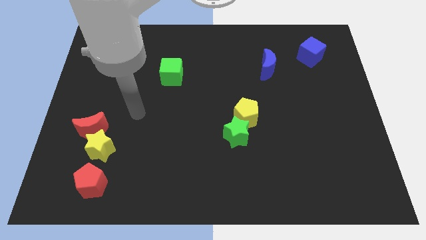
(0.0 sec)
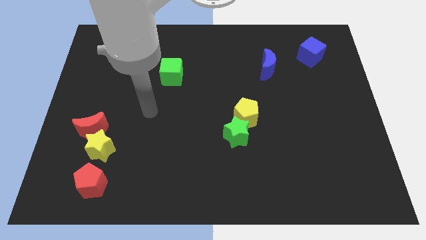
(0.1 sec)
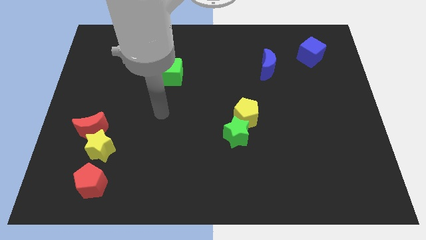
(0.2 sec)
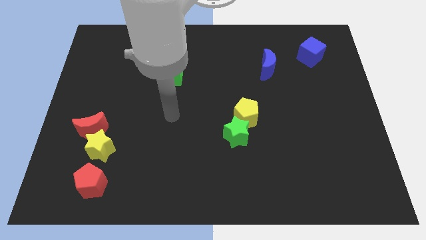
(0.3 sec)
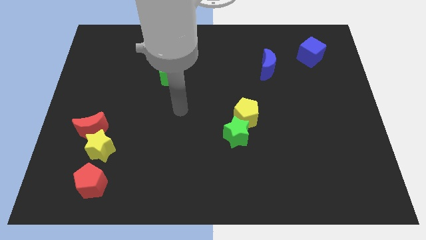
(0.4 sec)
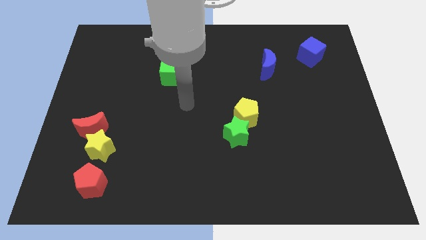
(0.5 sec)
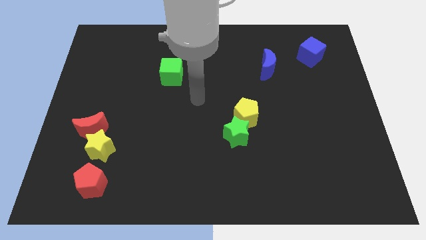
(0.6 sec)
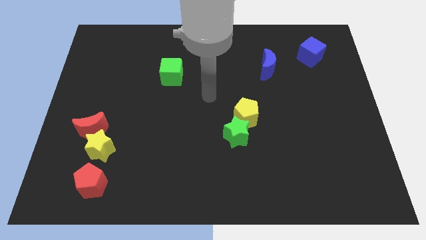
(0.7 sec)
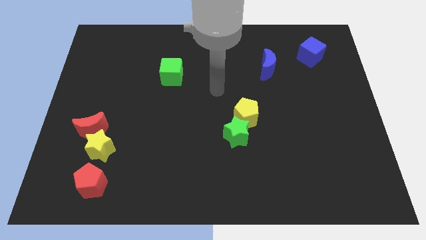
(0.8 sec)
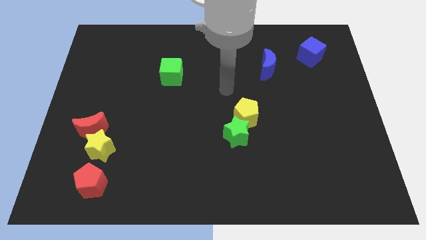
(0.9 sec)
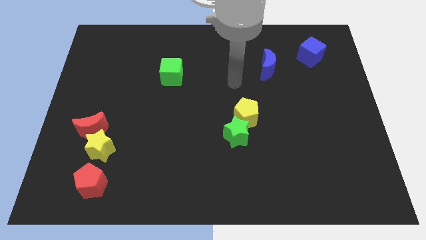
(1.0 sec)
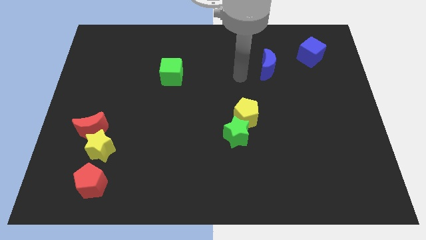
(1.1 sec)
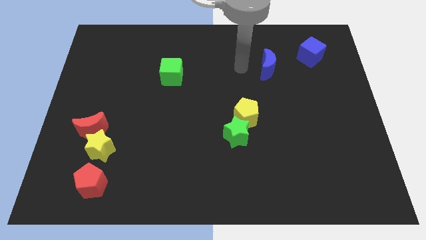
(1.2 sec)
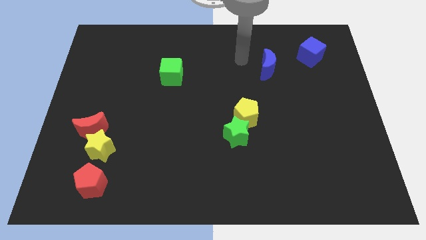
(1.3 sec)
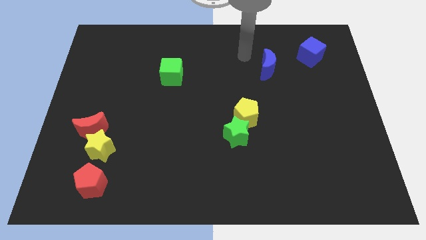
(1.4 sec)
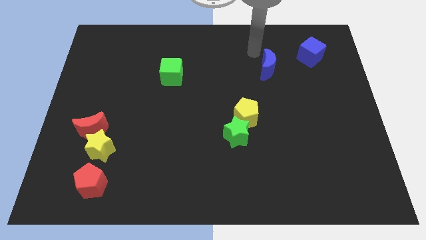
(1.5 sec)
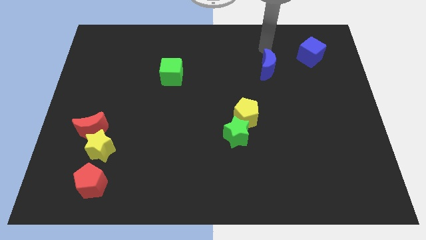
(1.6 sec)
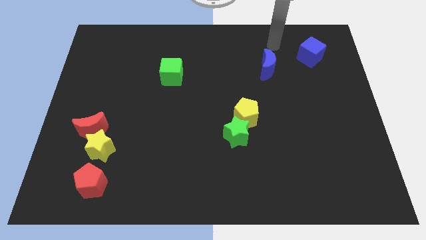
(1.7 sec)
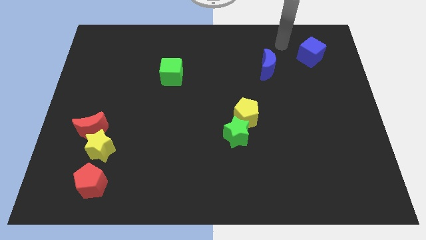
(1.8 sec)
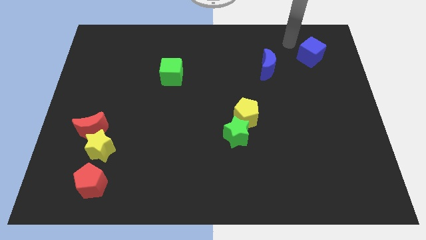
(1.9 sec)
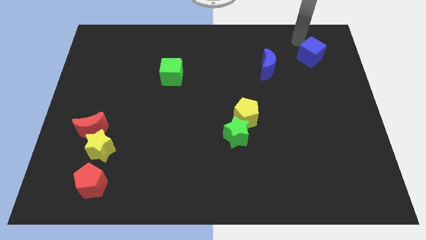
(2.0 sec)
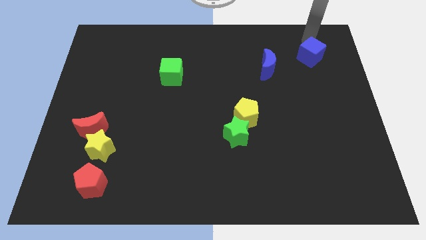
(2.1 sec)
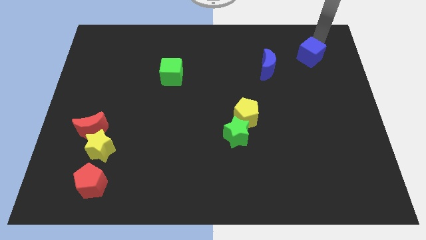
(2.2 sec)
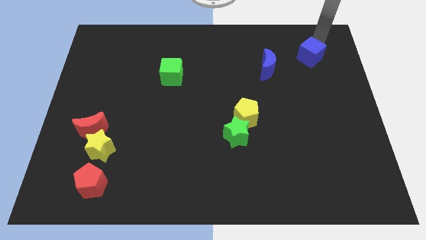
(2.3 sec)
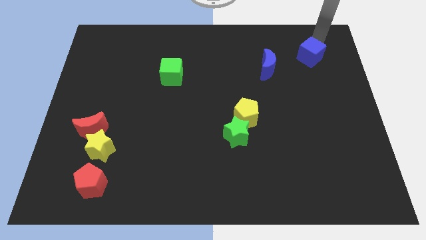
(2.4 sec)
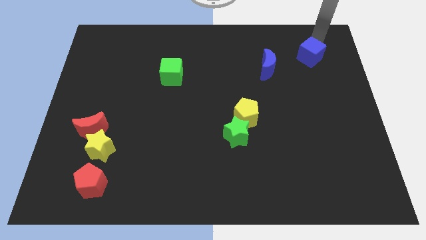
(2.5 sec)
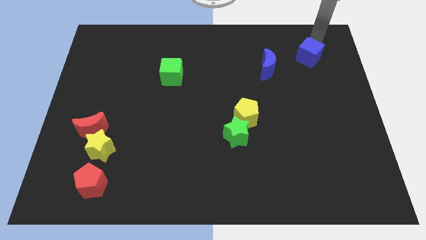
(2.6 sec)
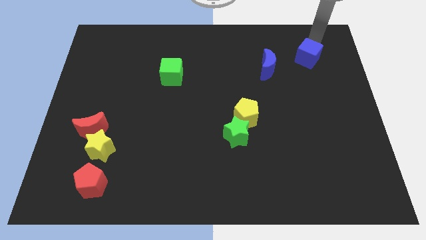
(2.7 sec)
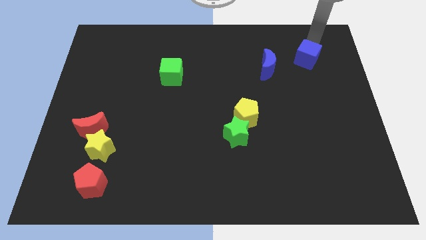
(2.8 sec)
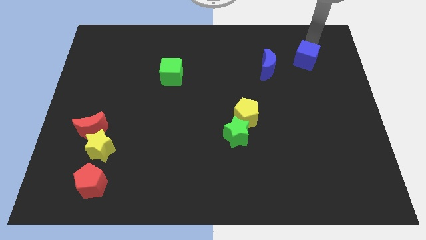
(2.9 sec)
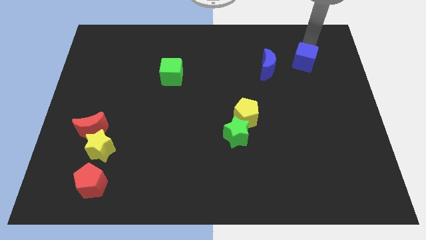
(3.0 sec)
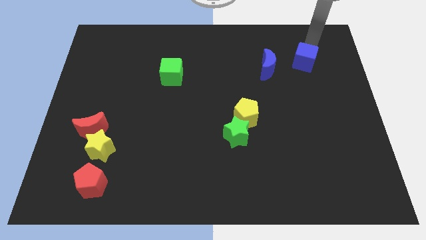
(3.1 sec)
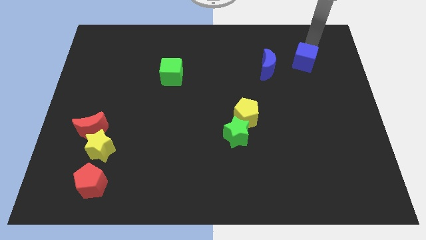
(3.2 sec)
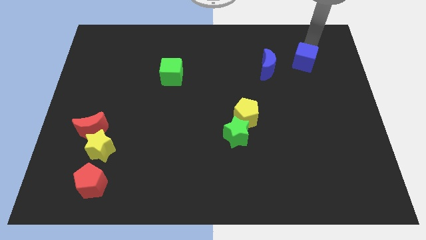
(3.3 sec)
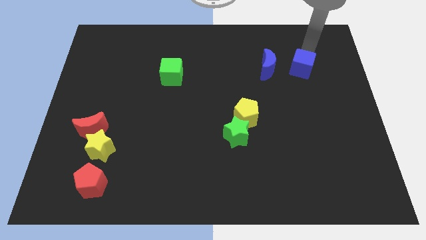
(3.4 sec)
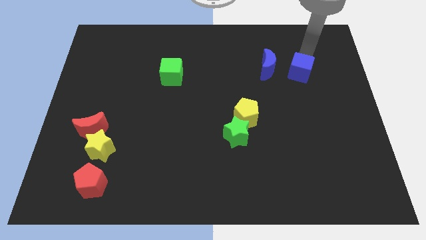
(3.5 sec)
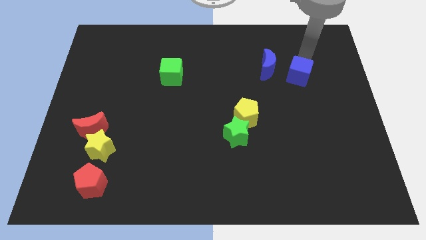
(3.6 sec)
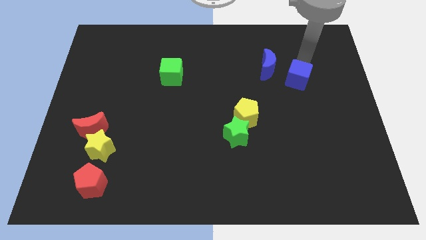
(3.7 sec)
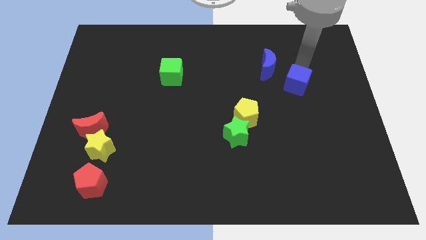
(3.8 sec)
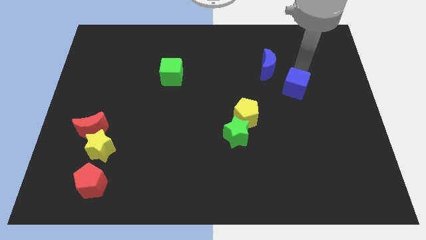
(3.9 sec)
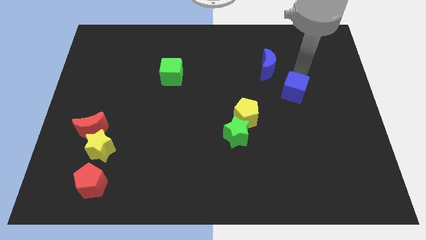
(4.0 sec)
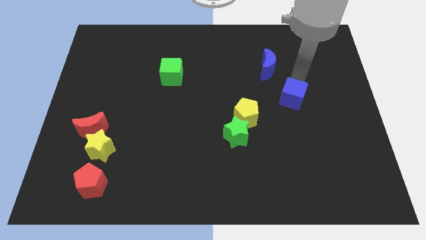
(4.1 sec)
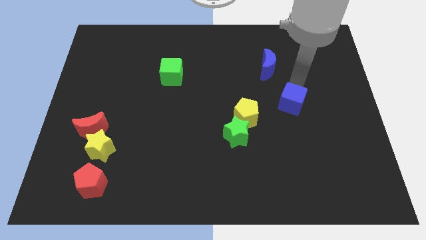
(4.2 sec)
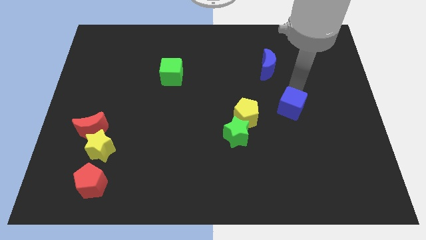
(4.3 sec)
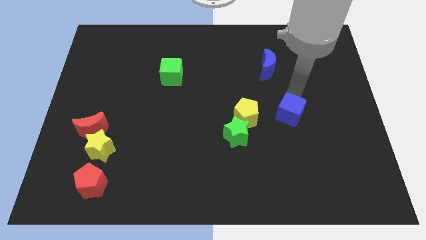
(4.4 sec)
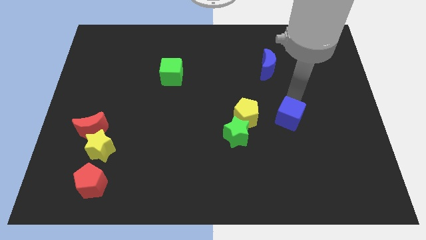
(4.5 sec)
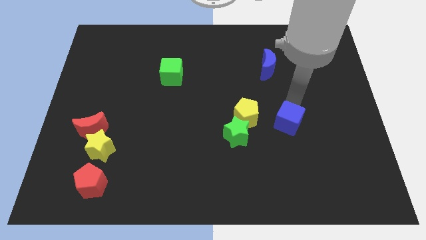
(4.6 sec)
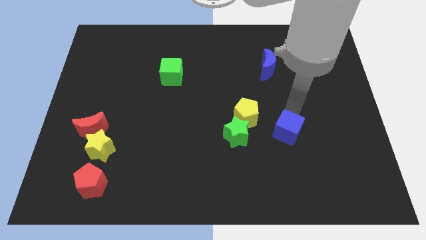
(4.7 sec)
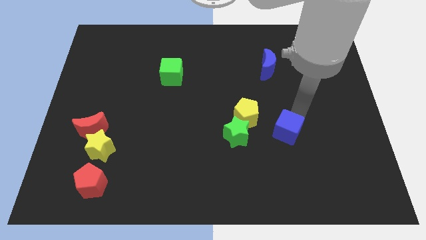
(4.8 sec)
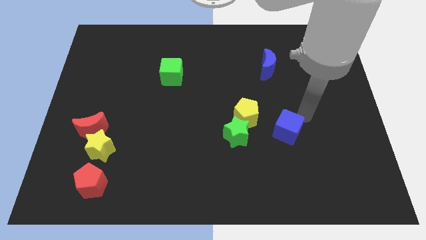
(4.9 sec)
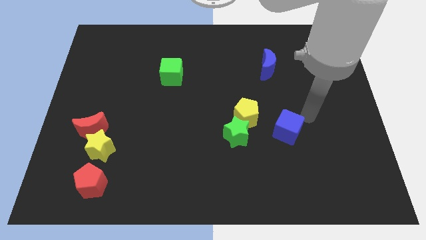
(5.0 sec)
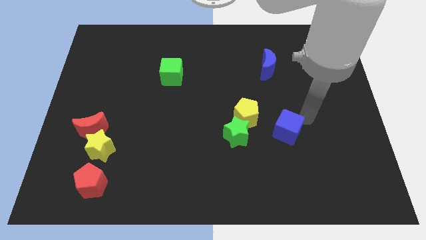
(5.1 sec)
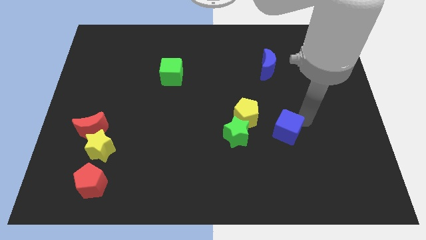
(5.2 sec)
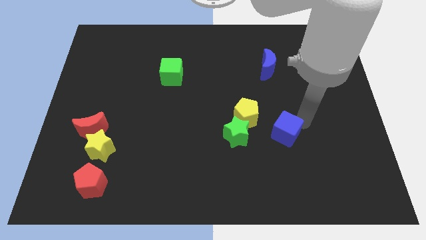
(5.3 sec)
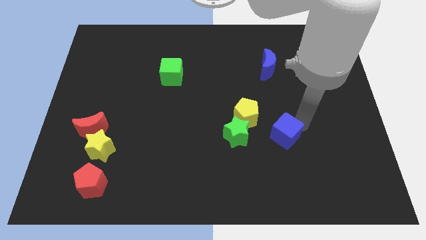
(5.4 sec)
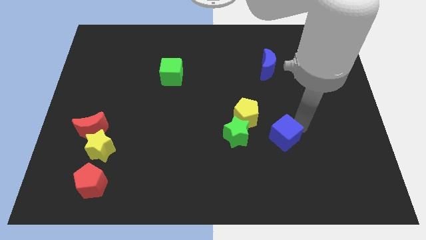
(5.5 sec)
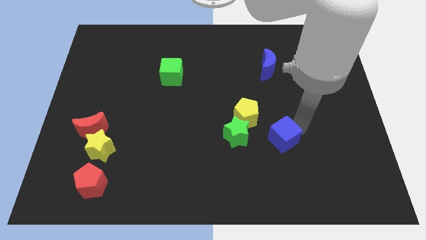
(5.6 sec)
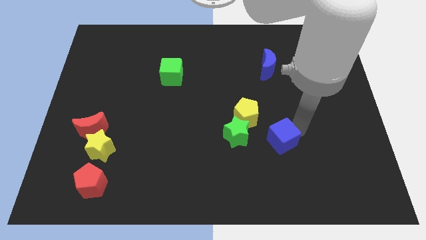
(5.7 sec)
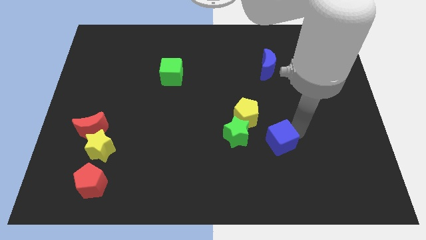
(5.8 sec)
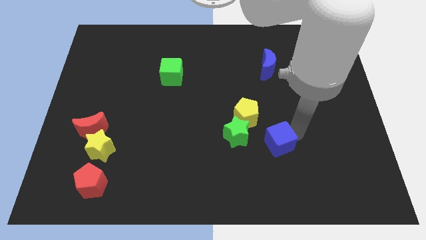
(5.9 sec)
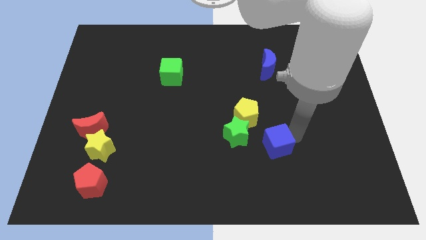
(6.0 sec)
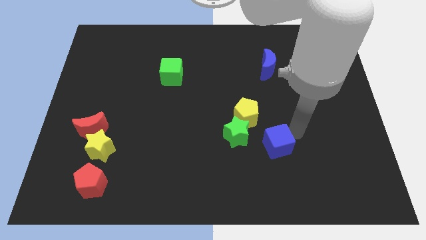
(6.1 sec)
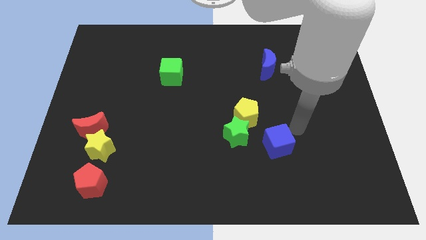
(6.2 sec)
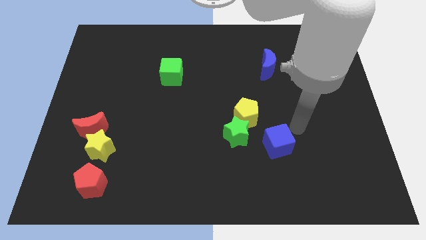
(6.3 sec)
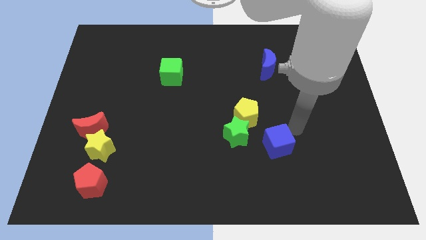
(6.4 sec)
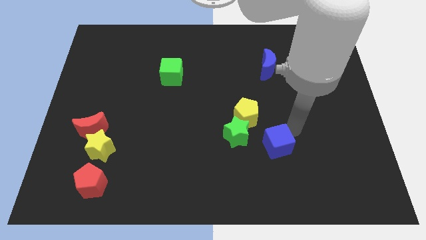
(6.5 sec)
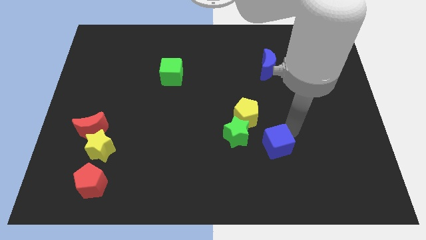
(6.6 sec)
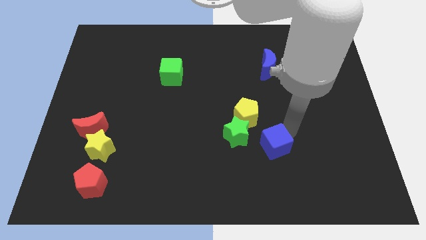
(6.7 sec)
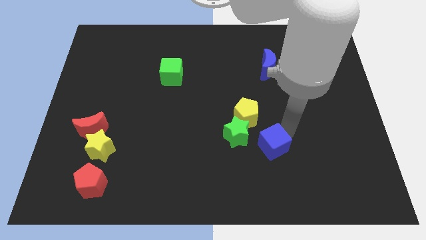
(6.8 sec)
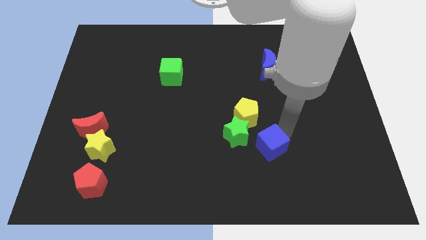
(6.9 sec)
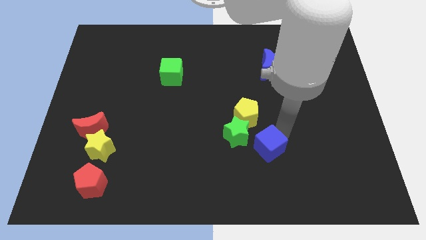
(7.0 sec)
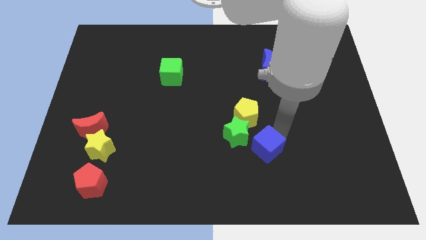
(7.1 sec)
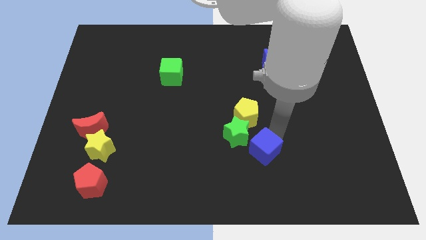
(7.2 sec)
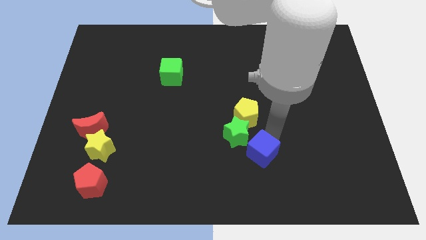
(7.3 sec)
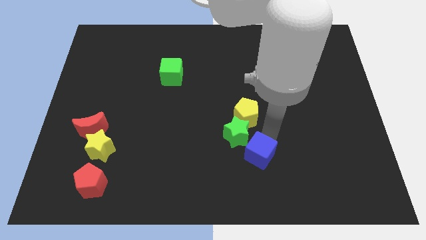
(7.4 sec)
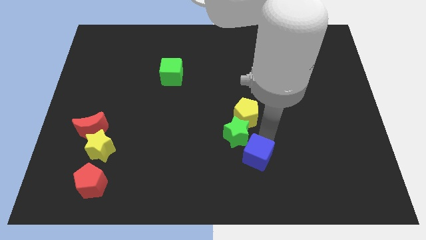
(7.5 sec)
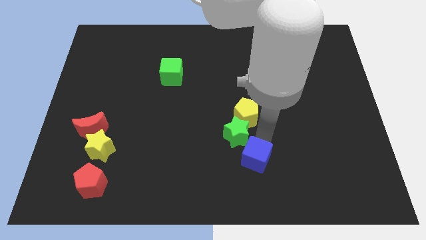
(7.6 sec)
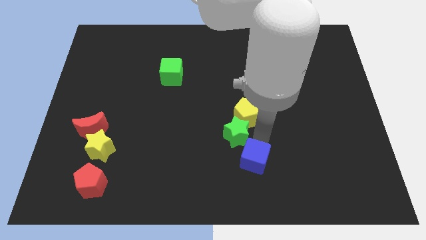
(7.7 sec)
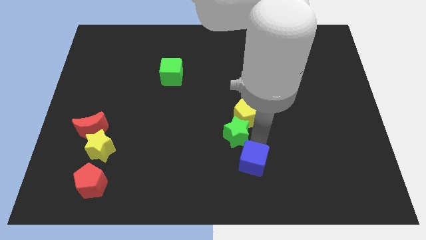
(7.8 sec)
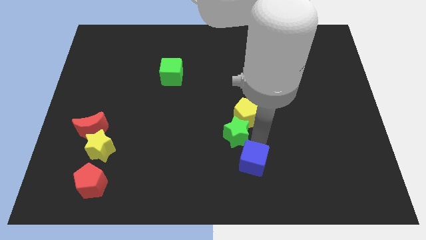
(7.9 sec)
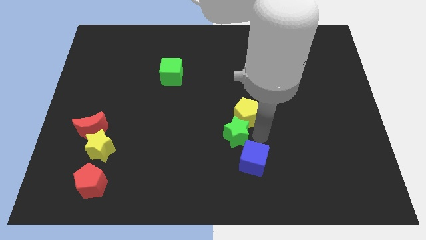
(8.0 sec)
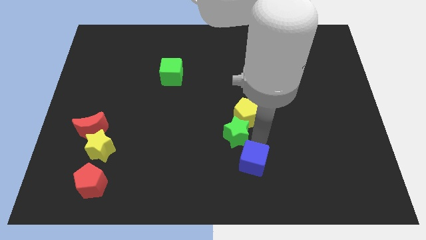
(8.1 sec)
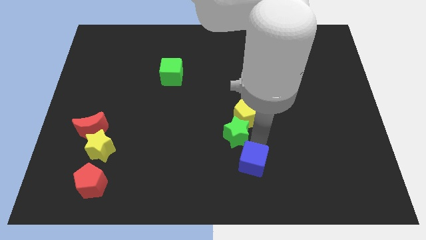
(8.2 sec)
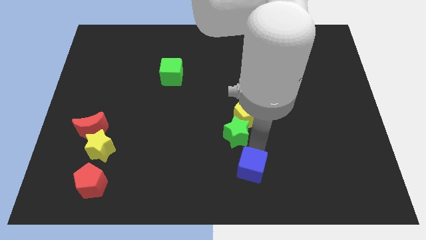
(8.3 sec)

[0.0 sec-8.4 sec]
put the blue cube to the bottom
